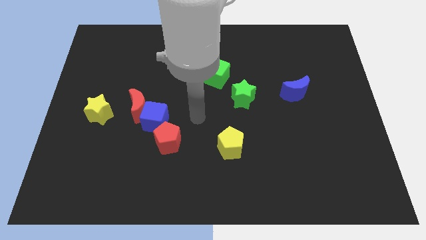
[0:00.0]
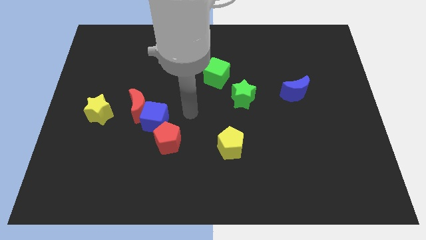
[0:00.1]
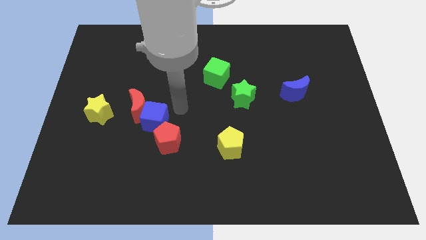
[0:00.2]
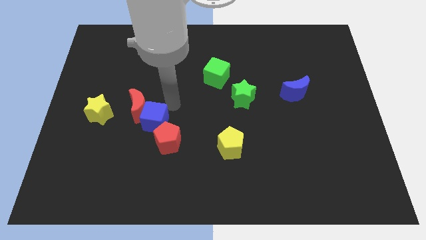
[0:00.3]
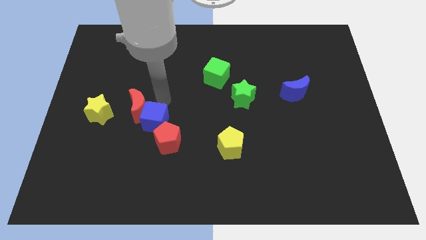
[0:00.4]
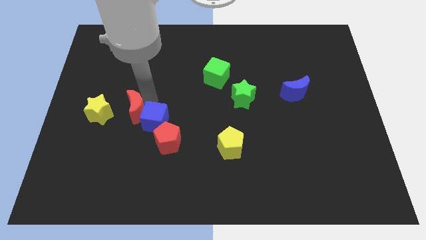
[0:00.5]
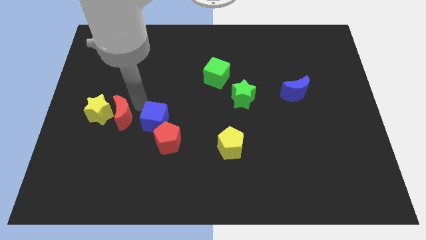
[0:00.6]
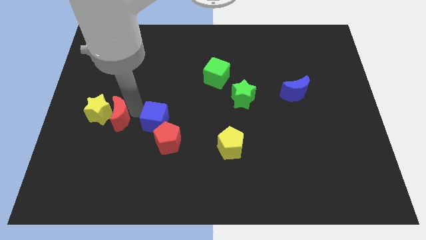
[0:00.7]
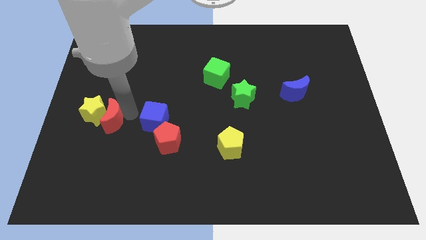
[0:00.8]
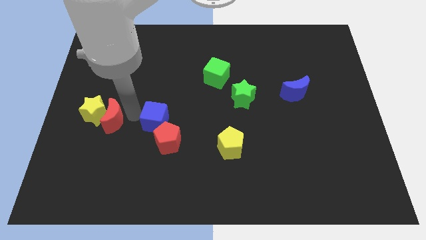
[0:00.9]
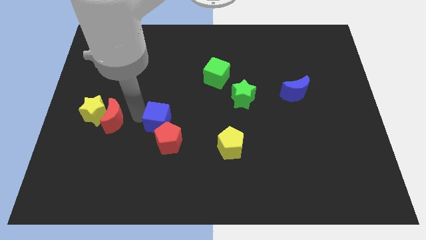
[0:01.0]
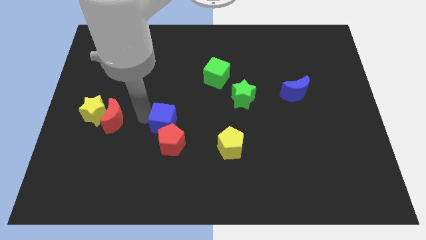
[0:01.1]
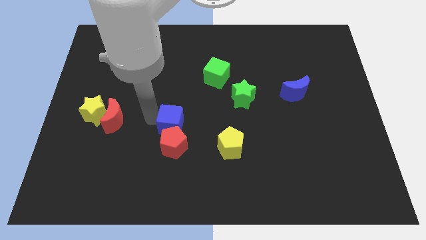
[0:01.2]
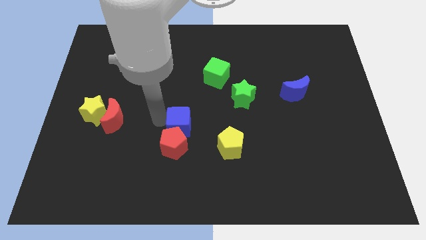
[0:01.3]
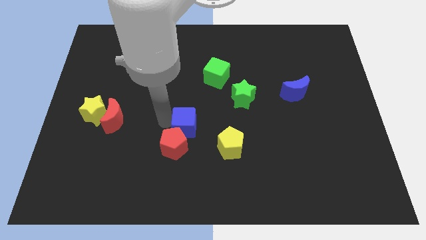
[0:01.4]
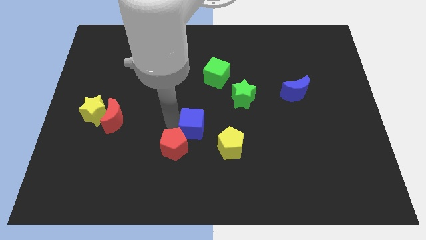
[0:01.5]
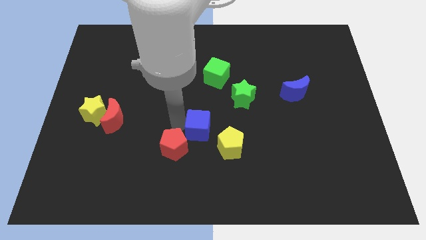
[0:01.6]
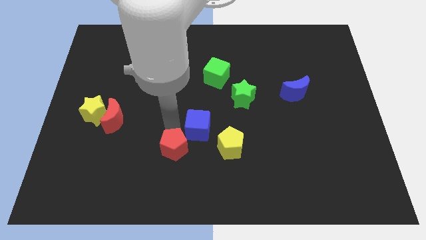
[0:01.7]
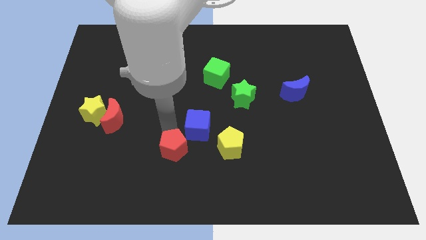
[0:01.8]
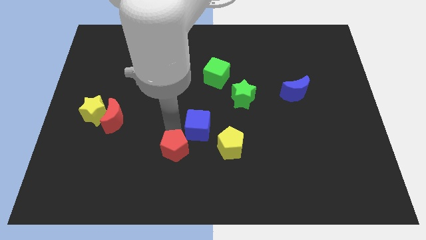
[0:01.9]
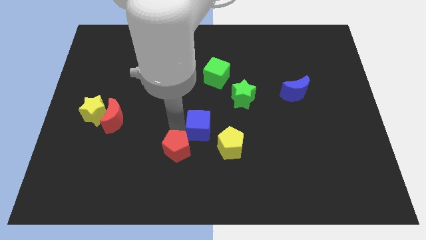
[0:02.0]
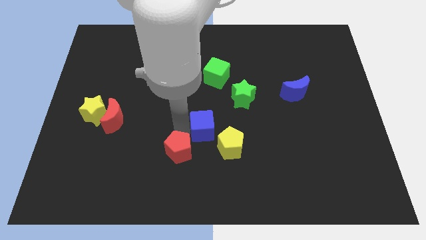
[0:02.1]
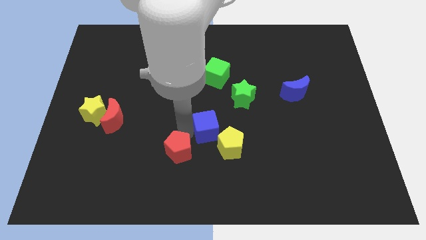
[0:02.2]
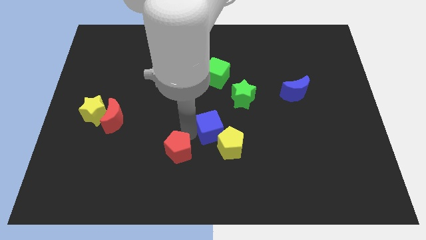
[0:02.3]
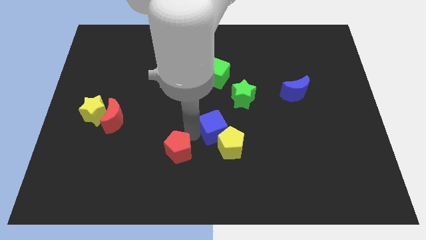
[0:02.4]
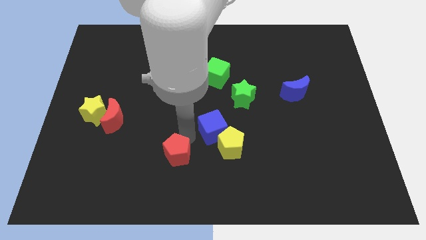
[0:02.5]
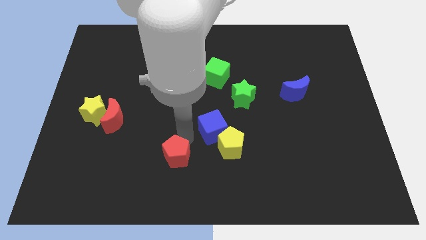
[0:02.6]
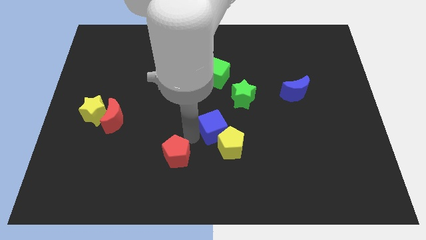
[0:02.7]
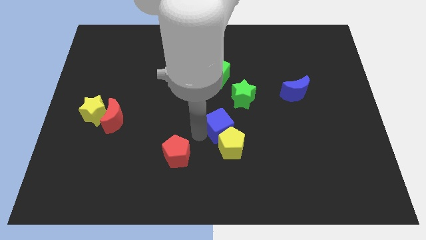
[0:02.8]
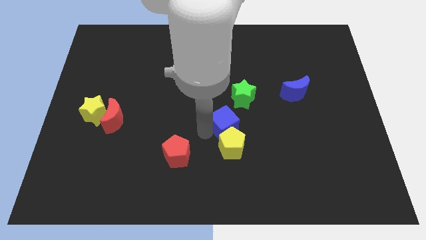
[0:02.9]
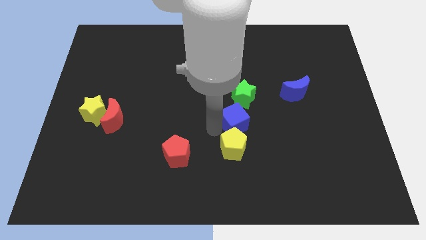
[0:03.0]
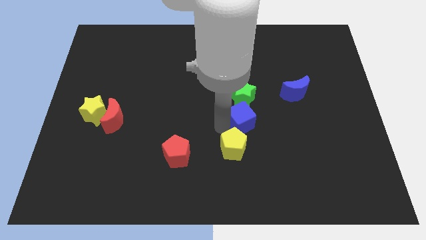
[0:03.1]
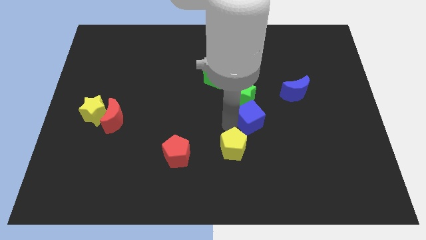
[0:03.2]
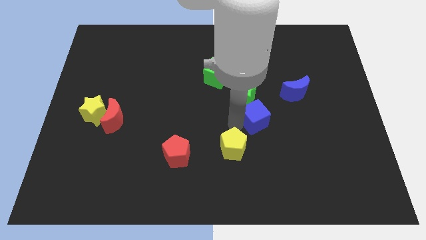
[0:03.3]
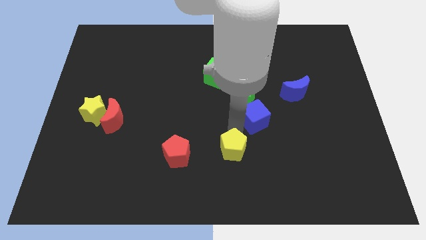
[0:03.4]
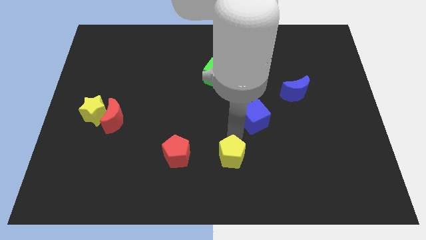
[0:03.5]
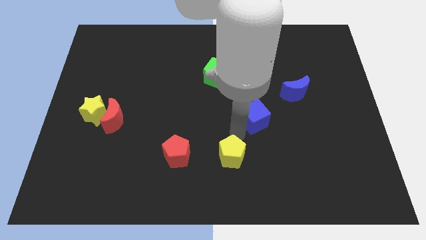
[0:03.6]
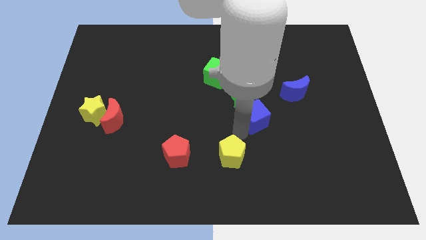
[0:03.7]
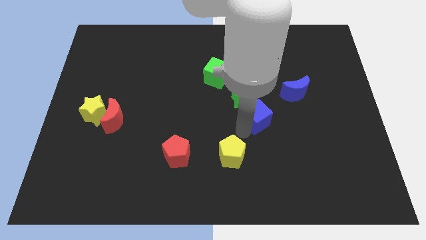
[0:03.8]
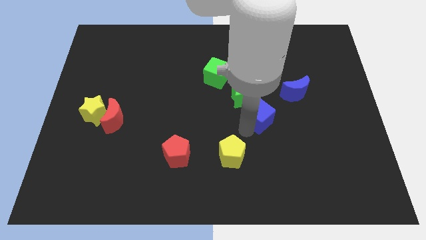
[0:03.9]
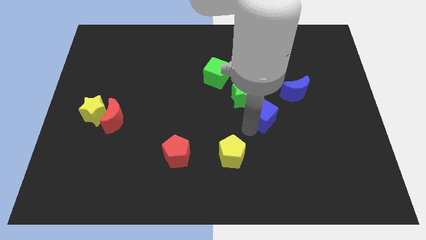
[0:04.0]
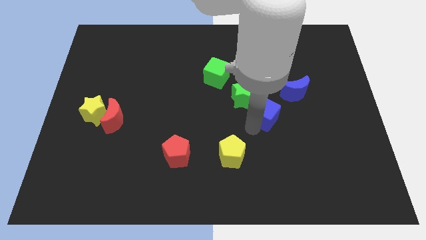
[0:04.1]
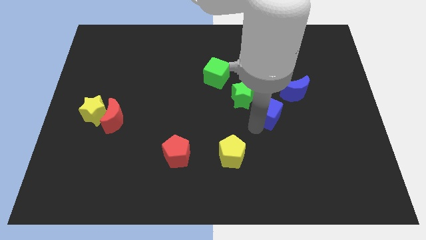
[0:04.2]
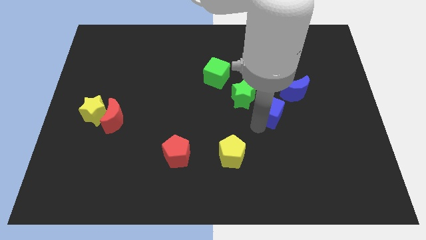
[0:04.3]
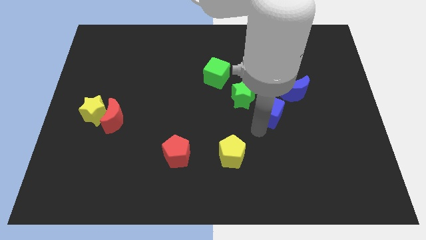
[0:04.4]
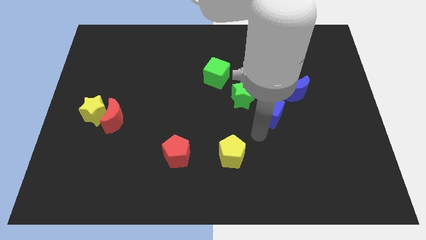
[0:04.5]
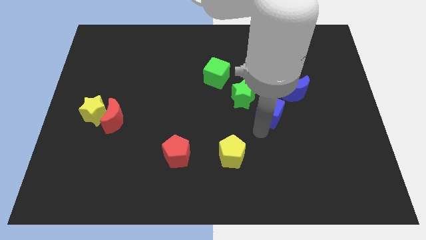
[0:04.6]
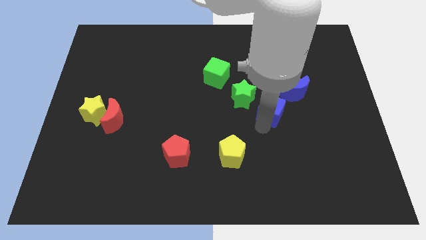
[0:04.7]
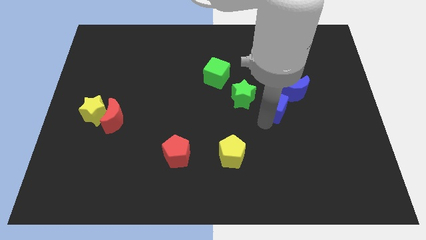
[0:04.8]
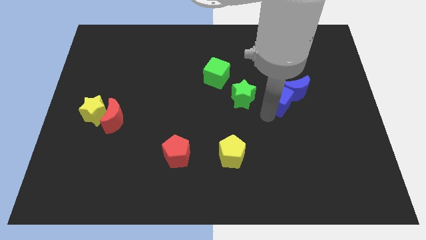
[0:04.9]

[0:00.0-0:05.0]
put the blue cube next to the blue moon

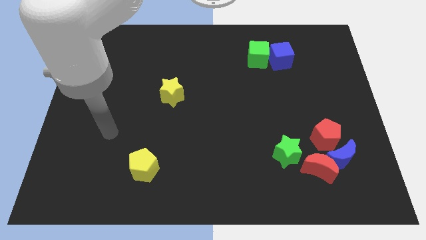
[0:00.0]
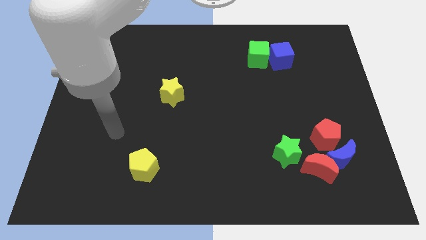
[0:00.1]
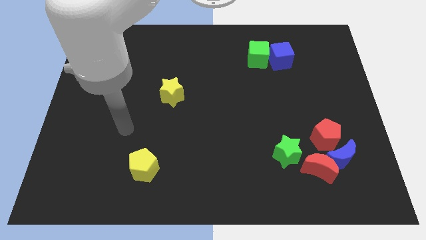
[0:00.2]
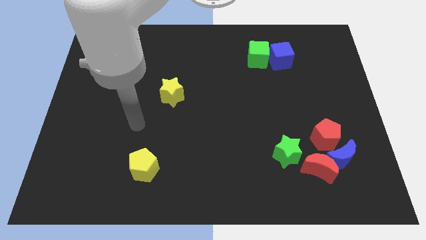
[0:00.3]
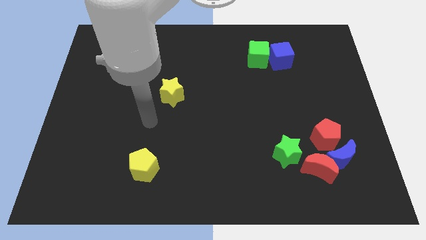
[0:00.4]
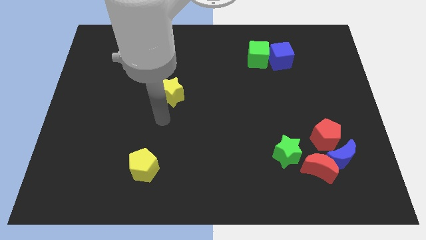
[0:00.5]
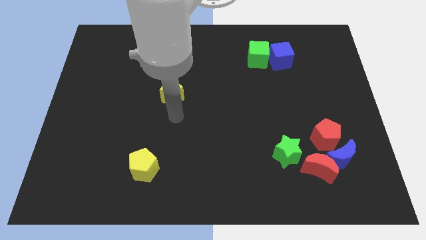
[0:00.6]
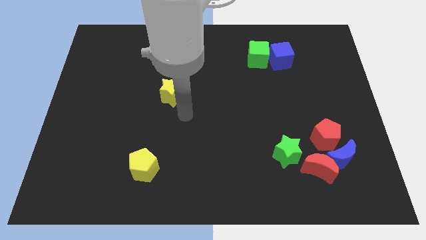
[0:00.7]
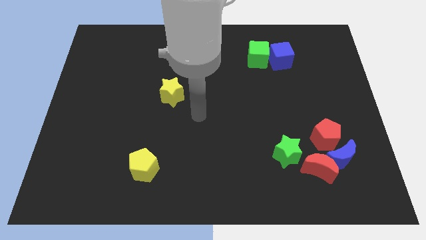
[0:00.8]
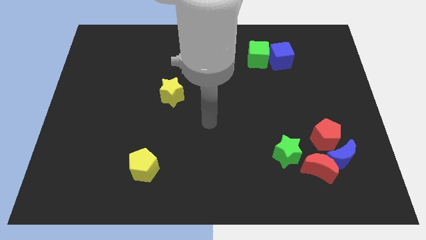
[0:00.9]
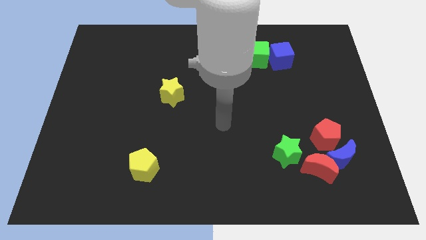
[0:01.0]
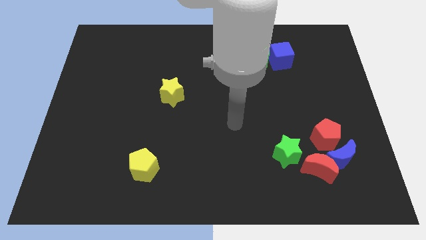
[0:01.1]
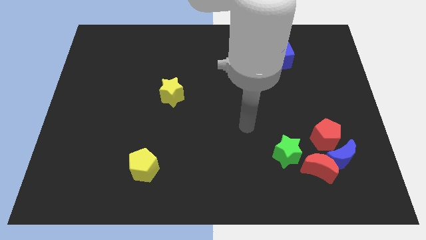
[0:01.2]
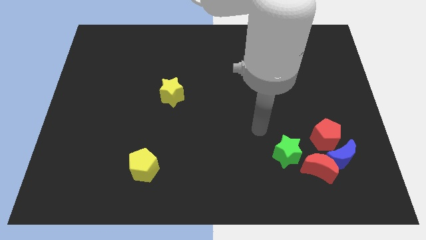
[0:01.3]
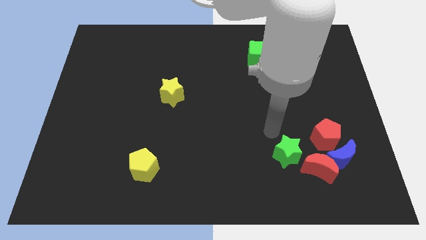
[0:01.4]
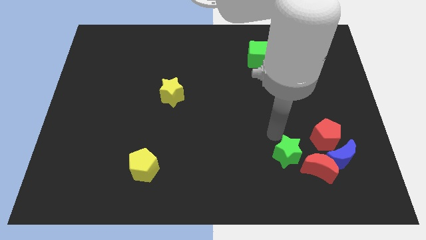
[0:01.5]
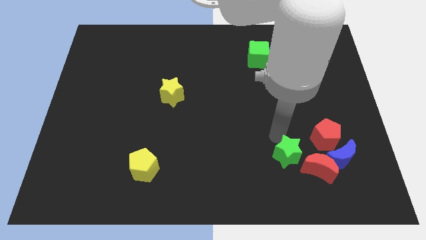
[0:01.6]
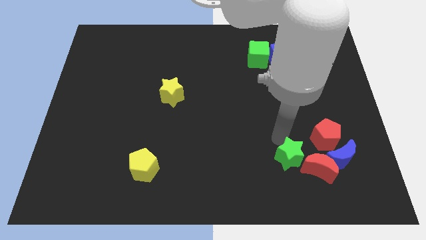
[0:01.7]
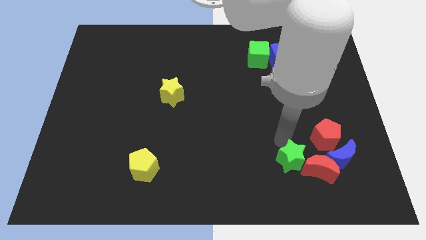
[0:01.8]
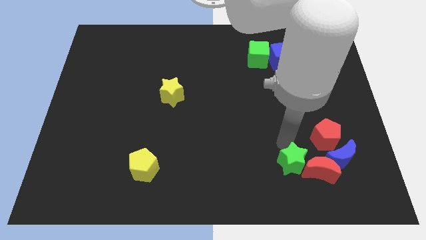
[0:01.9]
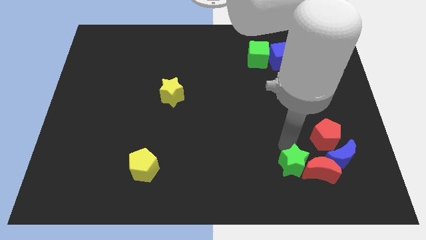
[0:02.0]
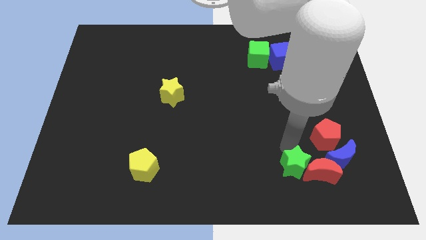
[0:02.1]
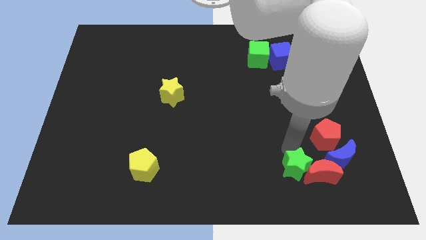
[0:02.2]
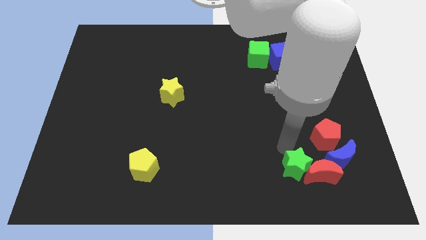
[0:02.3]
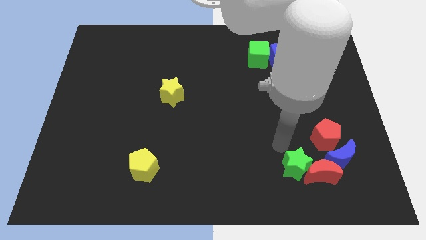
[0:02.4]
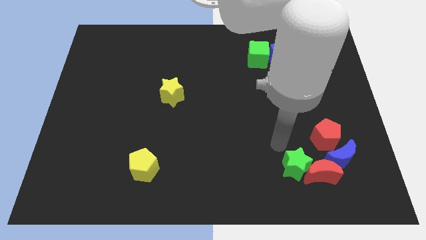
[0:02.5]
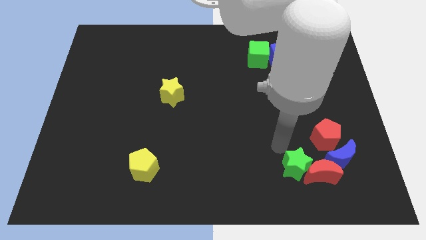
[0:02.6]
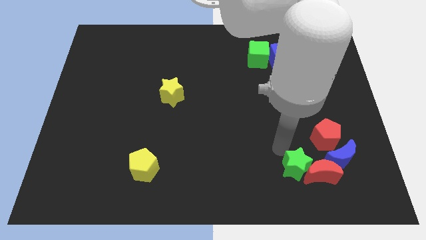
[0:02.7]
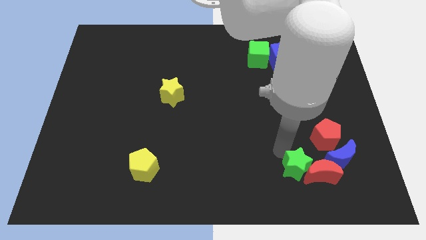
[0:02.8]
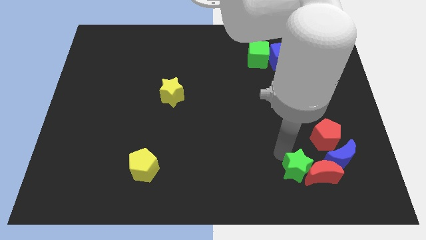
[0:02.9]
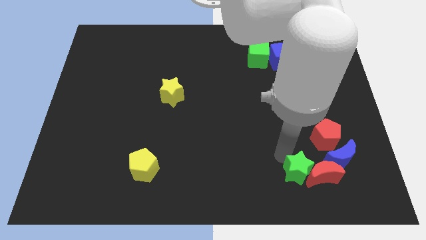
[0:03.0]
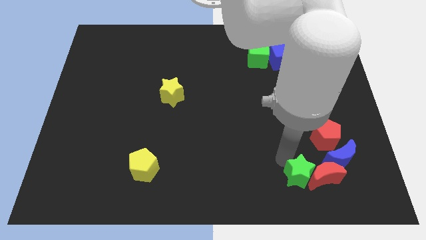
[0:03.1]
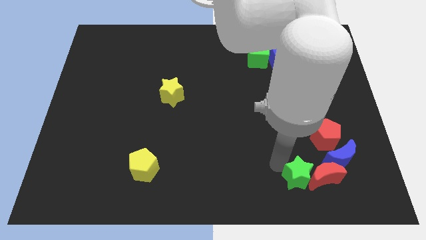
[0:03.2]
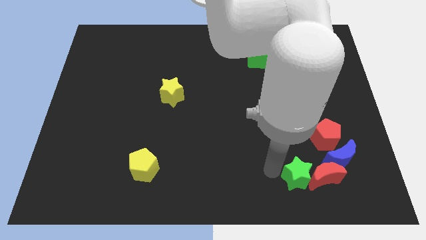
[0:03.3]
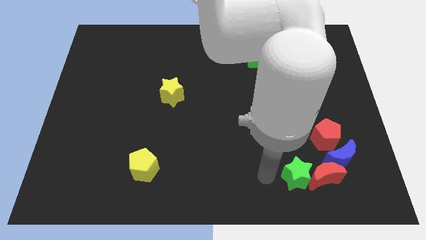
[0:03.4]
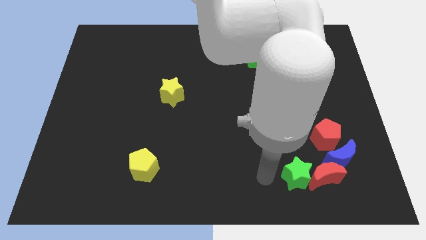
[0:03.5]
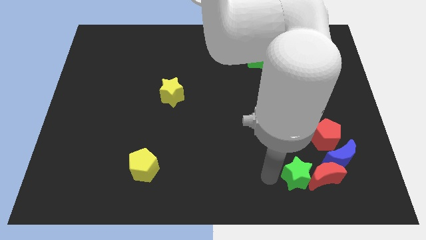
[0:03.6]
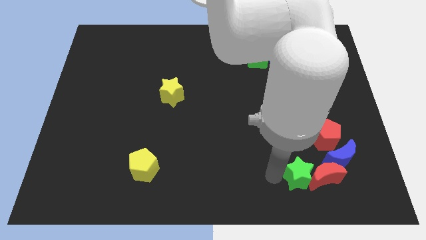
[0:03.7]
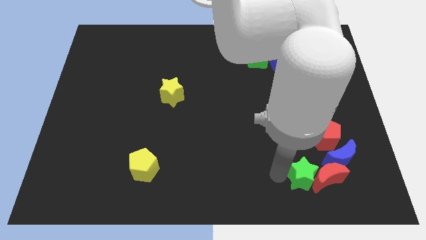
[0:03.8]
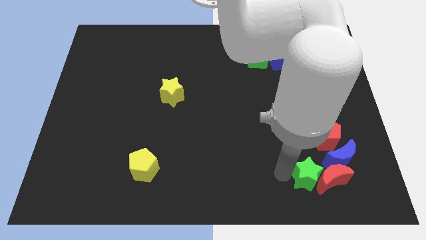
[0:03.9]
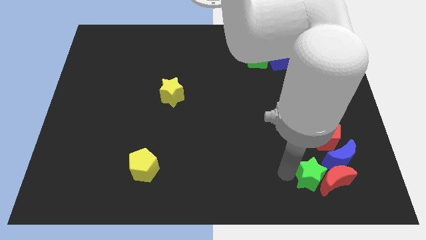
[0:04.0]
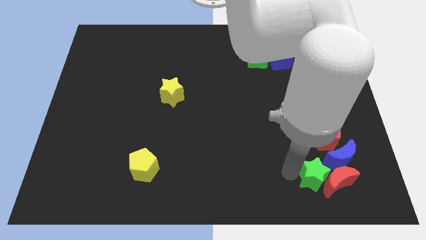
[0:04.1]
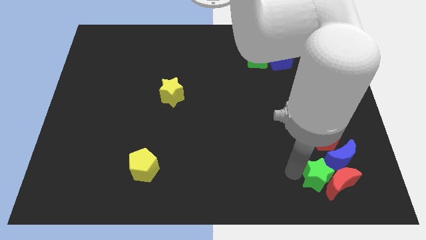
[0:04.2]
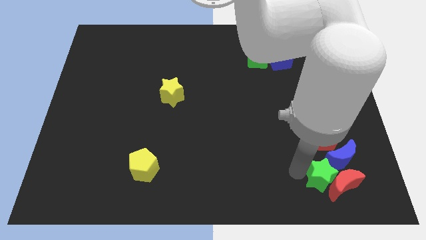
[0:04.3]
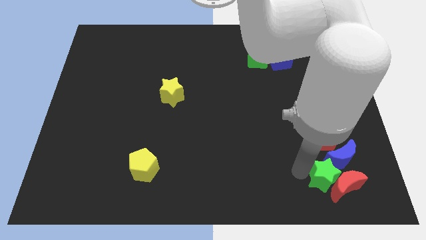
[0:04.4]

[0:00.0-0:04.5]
put the green star towards the blue moon
